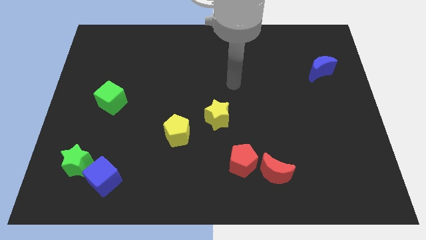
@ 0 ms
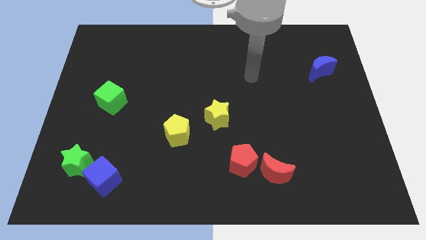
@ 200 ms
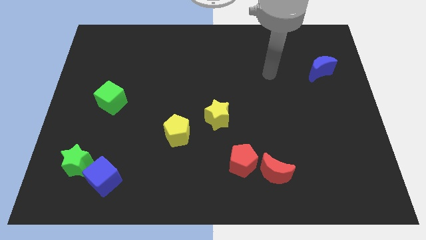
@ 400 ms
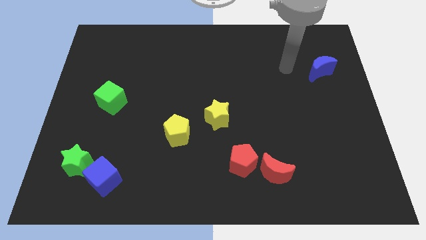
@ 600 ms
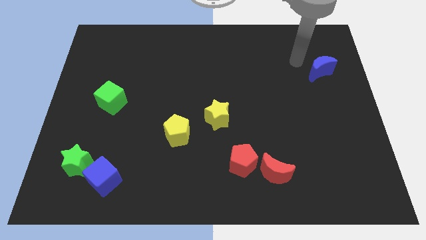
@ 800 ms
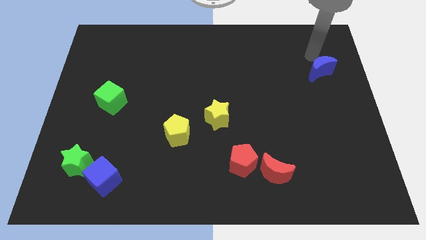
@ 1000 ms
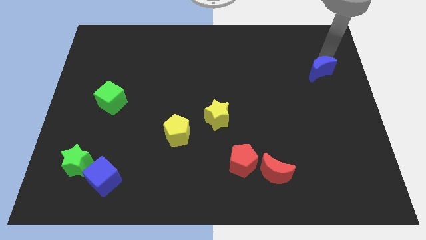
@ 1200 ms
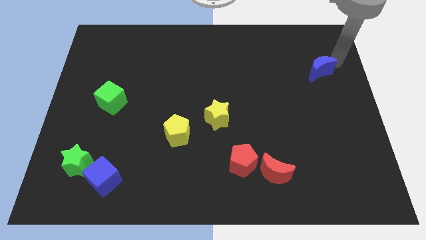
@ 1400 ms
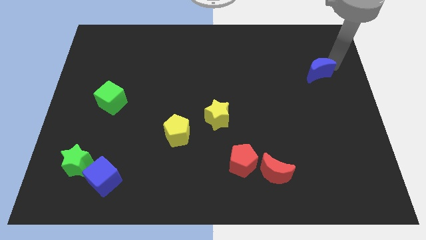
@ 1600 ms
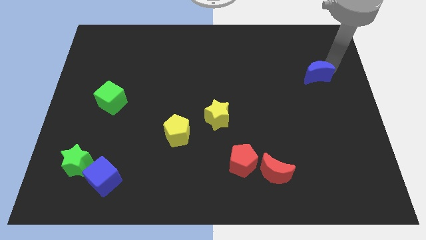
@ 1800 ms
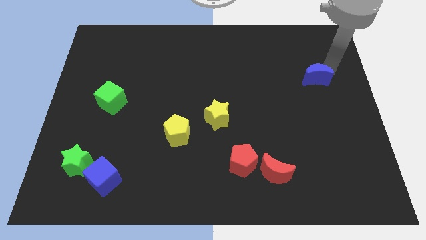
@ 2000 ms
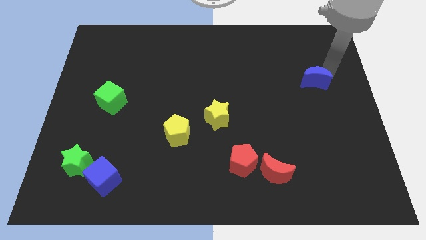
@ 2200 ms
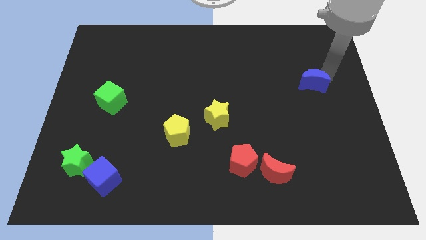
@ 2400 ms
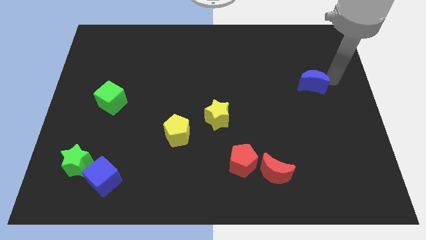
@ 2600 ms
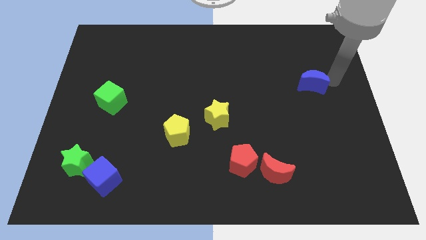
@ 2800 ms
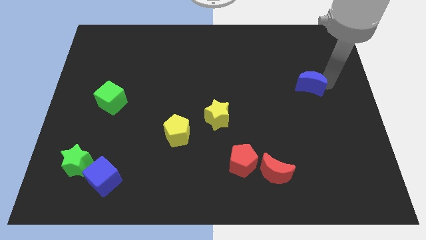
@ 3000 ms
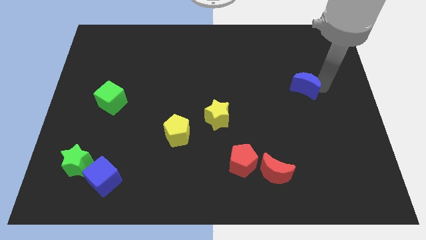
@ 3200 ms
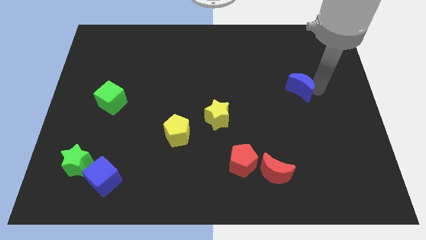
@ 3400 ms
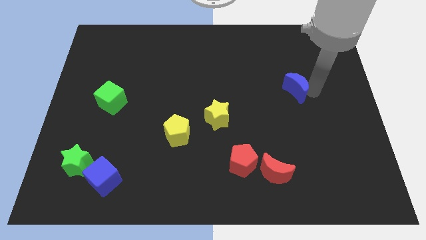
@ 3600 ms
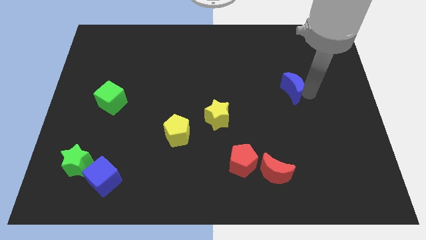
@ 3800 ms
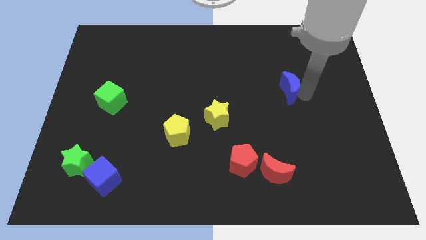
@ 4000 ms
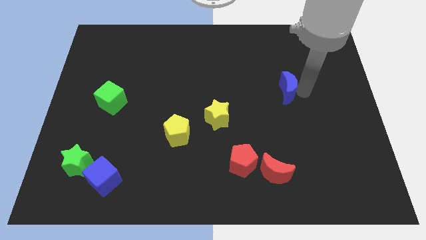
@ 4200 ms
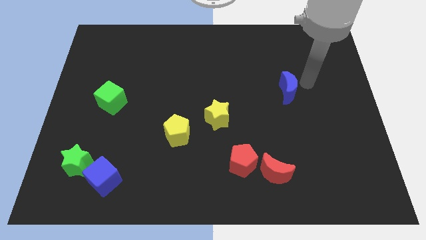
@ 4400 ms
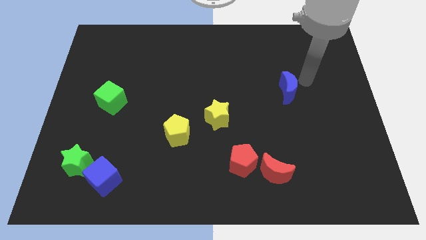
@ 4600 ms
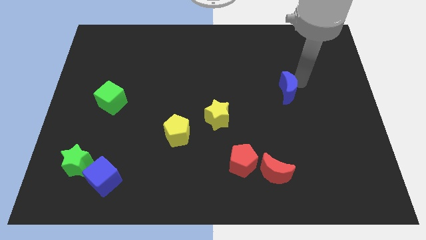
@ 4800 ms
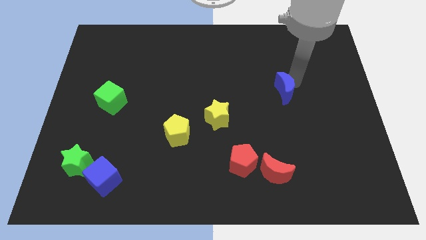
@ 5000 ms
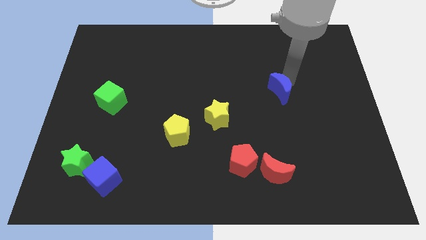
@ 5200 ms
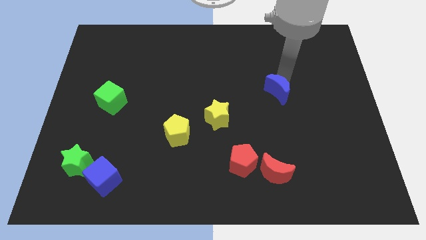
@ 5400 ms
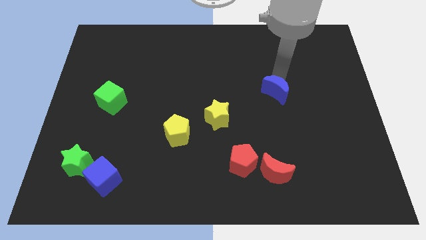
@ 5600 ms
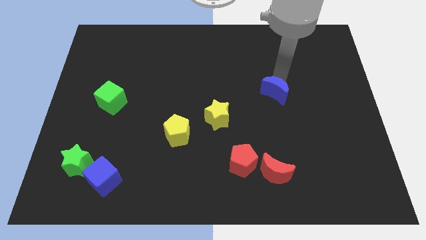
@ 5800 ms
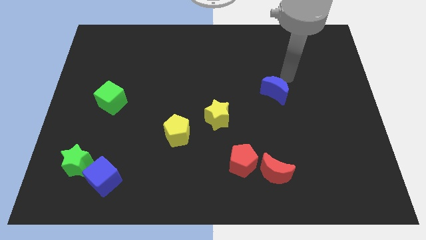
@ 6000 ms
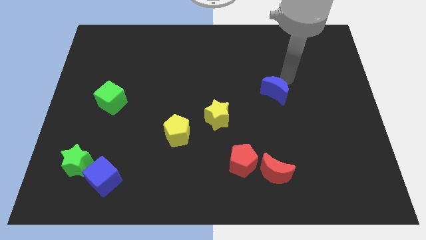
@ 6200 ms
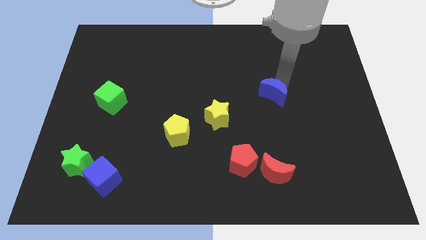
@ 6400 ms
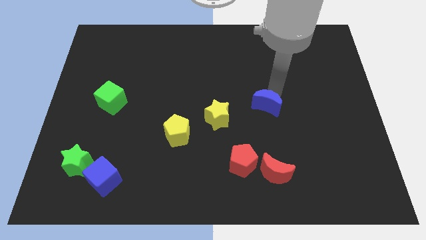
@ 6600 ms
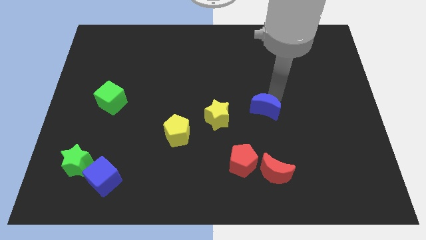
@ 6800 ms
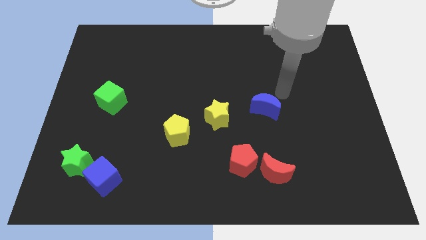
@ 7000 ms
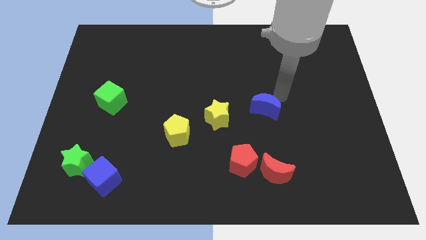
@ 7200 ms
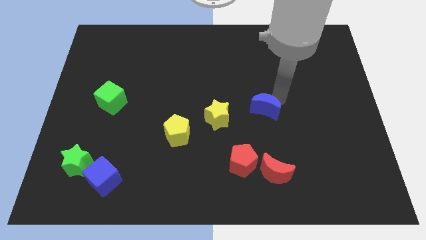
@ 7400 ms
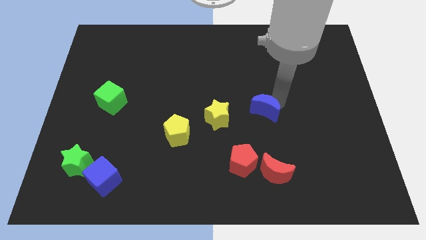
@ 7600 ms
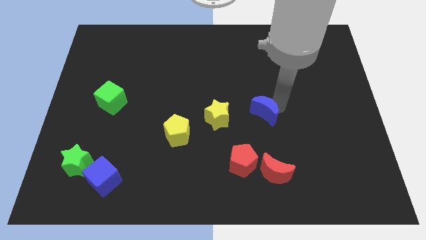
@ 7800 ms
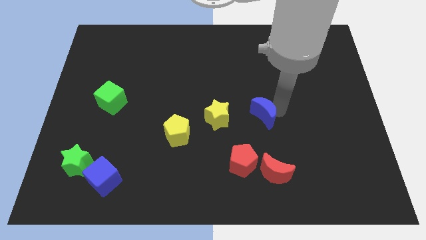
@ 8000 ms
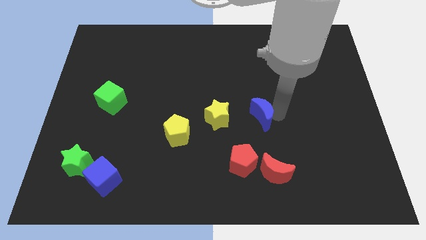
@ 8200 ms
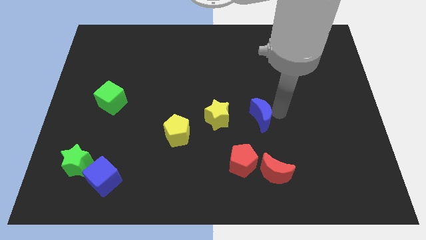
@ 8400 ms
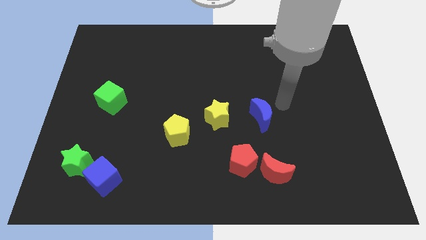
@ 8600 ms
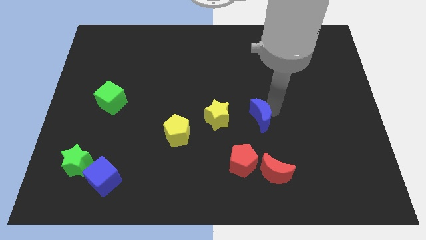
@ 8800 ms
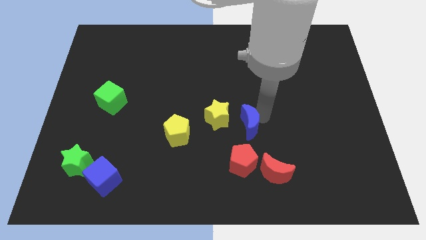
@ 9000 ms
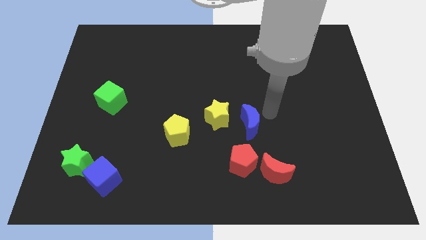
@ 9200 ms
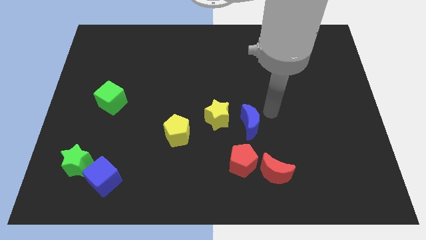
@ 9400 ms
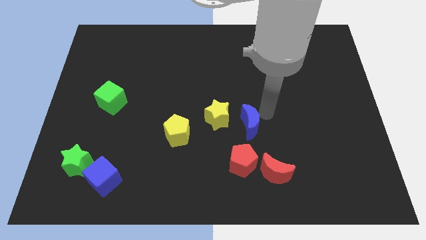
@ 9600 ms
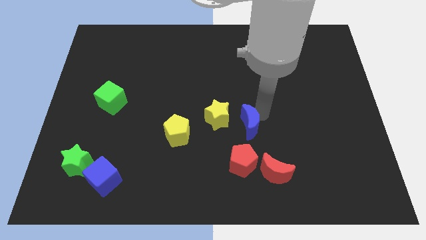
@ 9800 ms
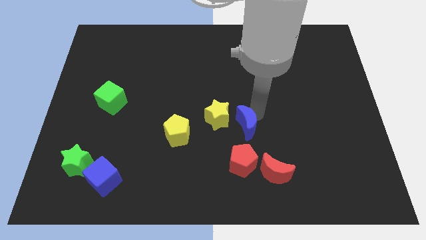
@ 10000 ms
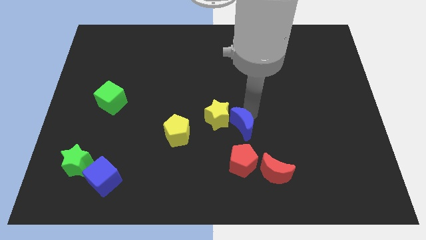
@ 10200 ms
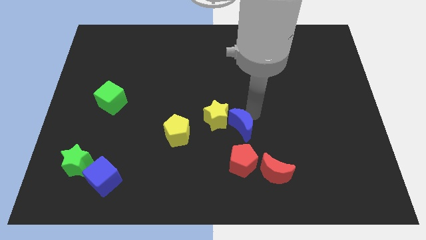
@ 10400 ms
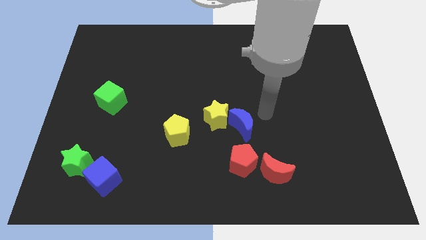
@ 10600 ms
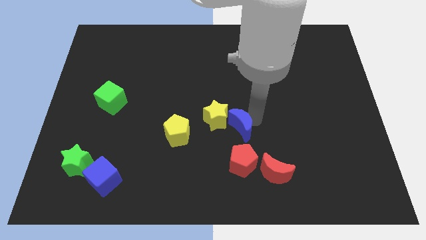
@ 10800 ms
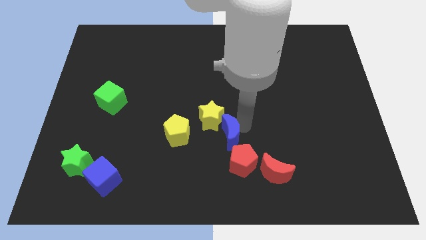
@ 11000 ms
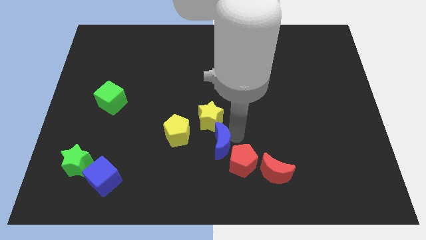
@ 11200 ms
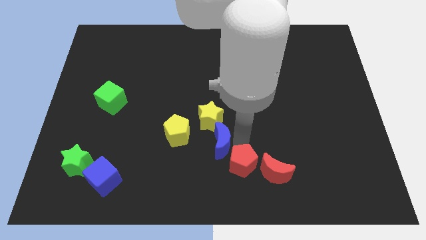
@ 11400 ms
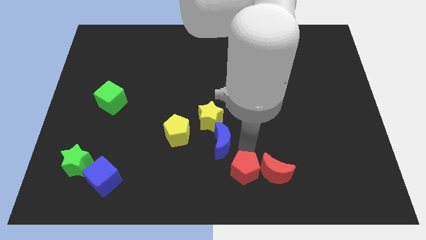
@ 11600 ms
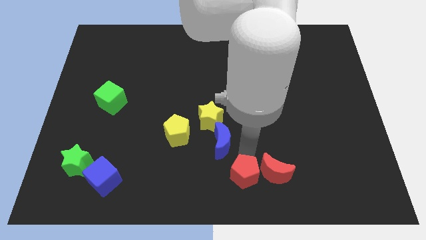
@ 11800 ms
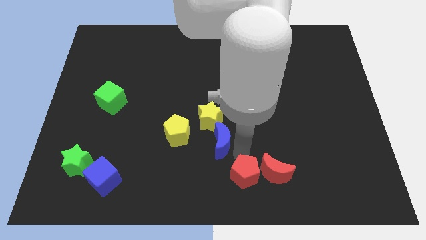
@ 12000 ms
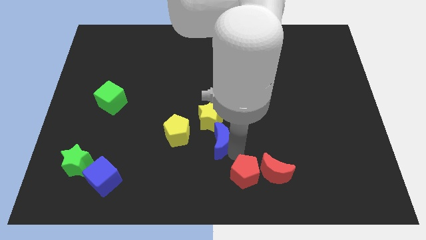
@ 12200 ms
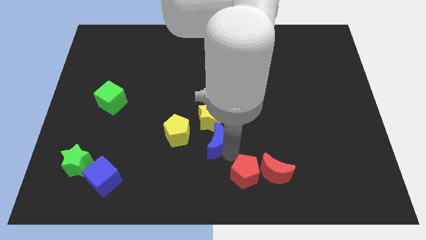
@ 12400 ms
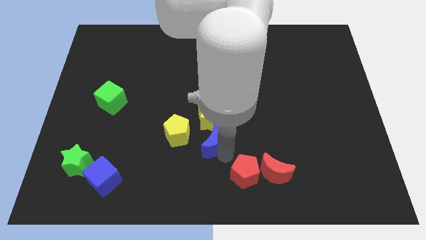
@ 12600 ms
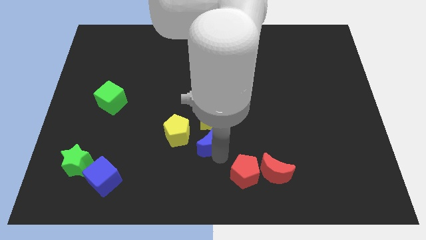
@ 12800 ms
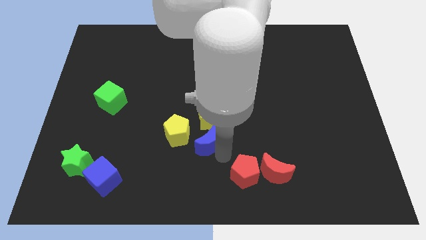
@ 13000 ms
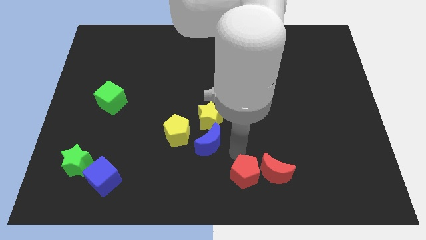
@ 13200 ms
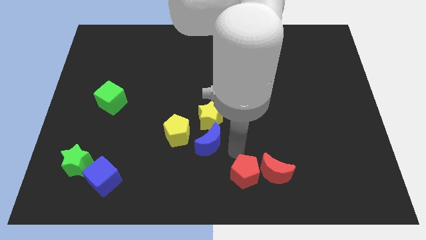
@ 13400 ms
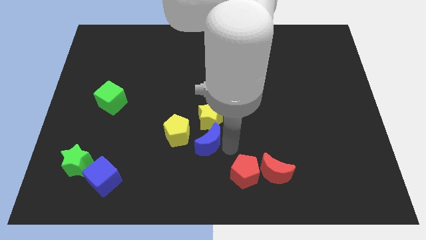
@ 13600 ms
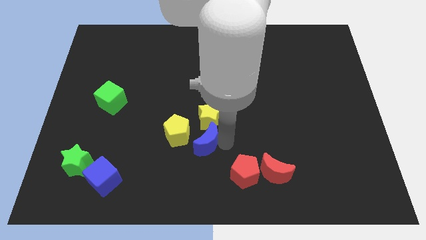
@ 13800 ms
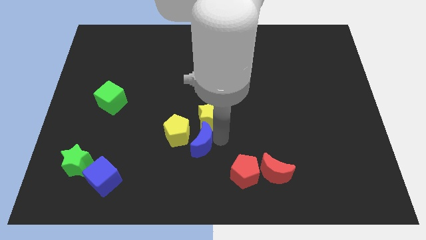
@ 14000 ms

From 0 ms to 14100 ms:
push the blue moon to the yellow pentagon
